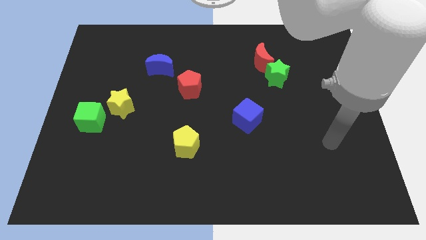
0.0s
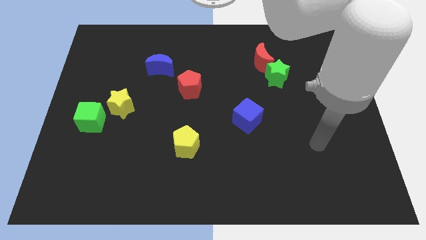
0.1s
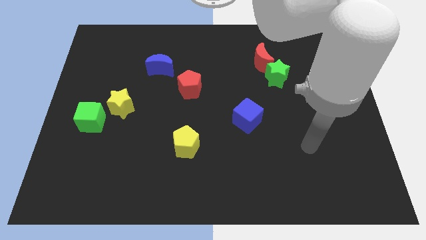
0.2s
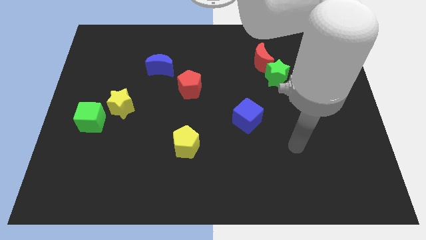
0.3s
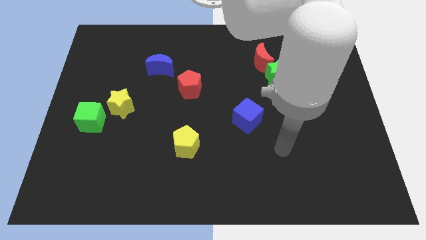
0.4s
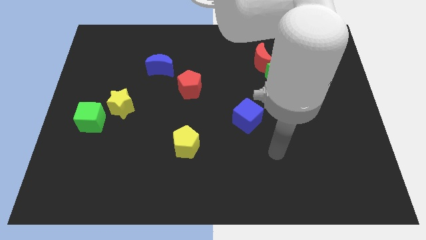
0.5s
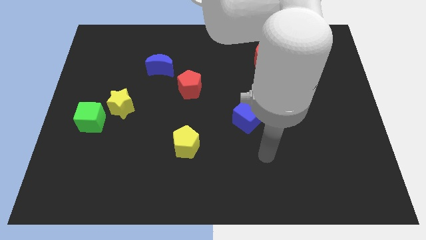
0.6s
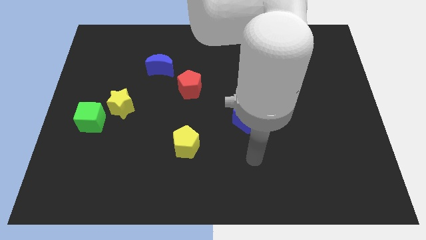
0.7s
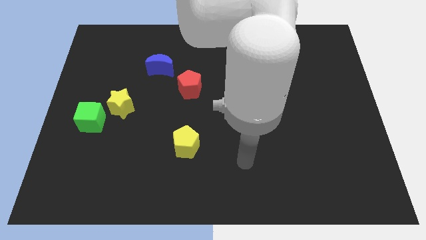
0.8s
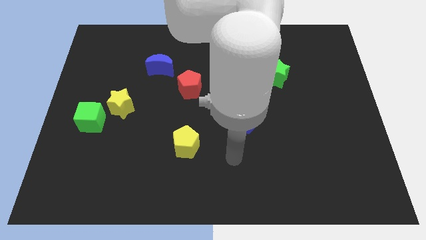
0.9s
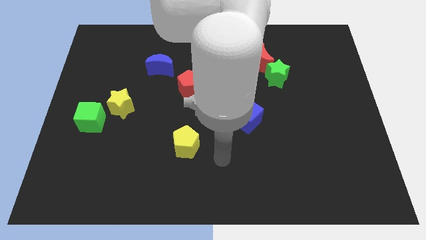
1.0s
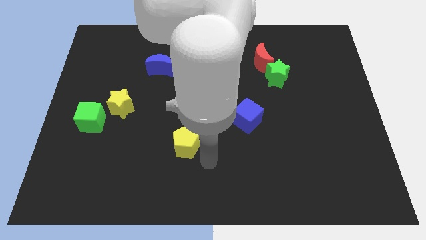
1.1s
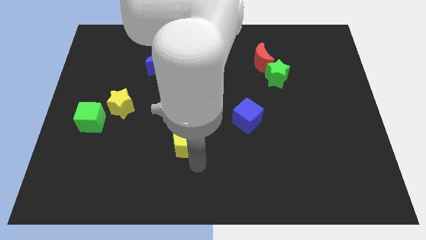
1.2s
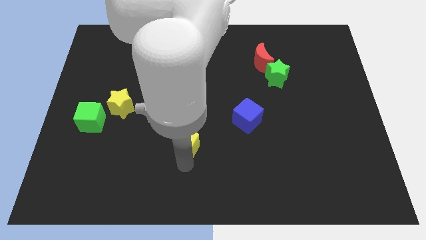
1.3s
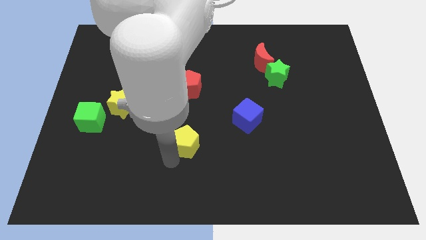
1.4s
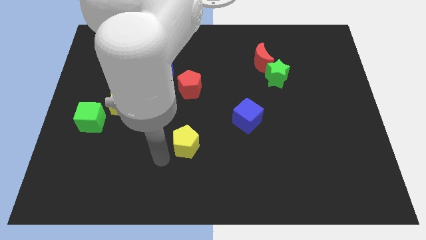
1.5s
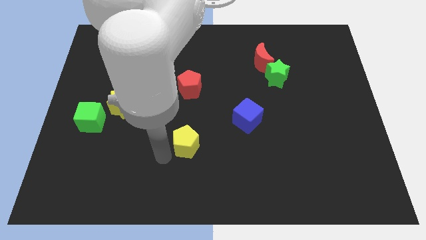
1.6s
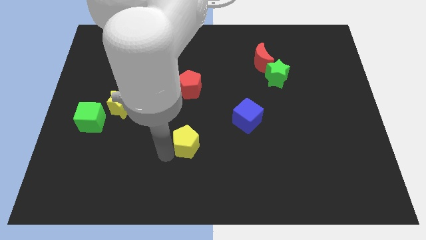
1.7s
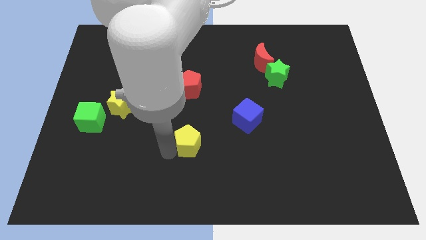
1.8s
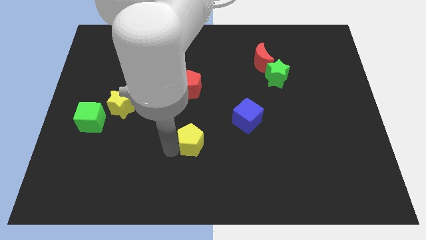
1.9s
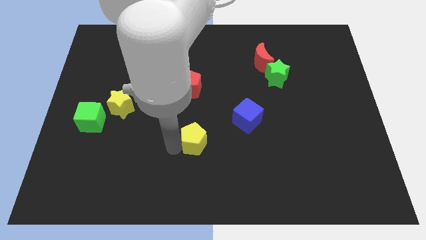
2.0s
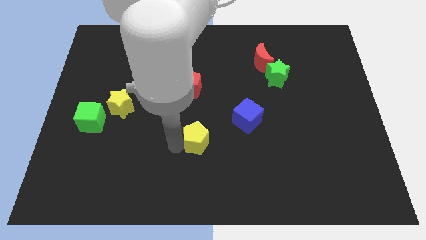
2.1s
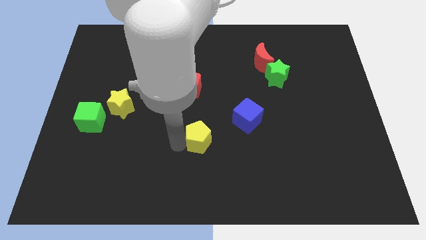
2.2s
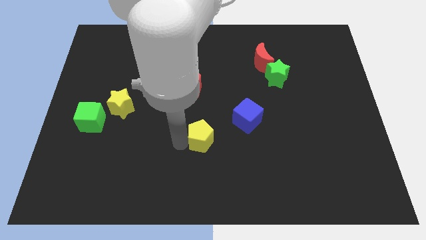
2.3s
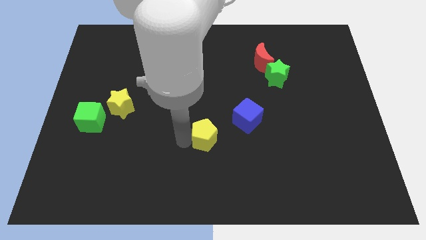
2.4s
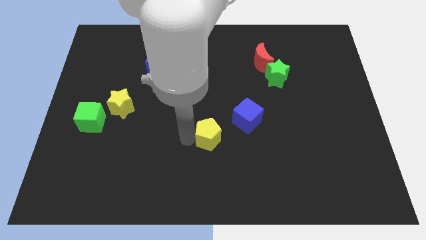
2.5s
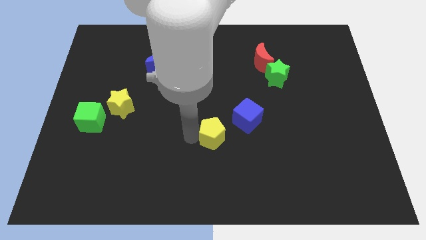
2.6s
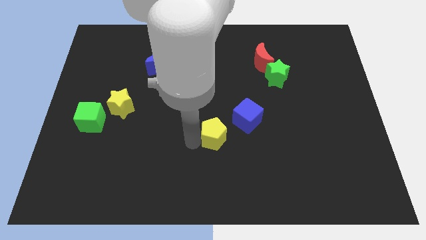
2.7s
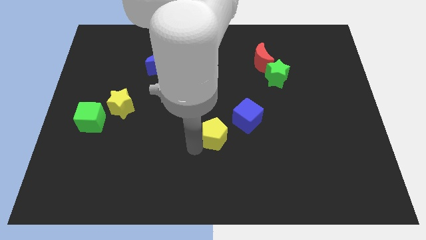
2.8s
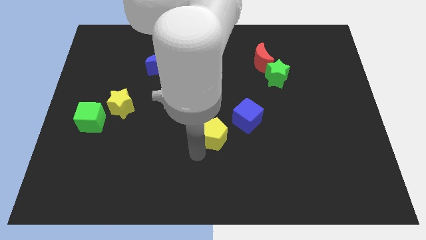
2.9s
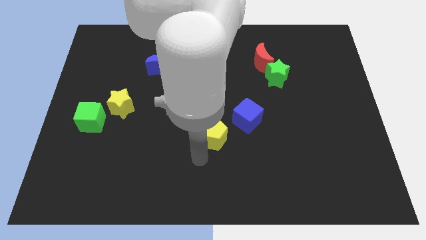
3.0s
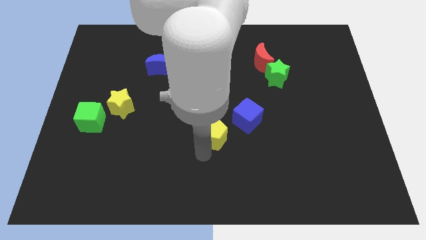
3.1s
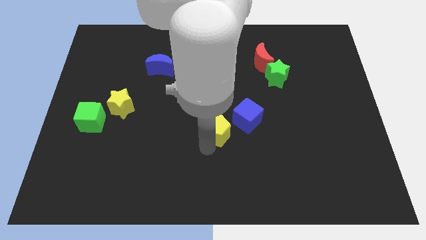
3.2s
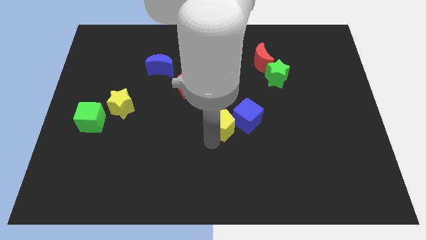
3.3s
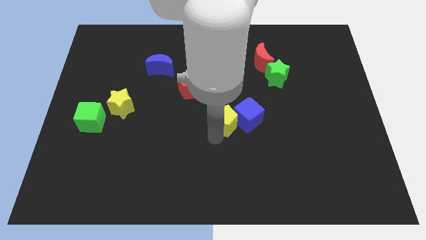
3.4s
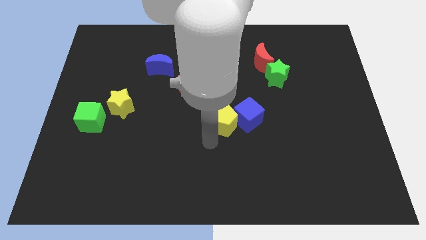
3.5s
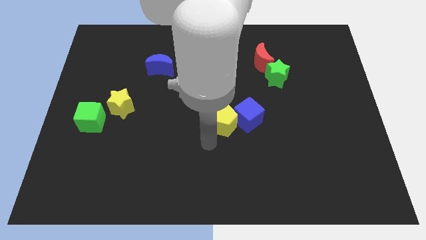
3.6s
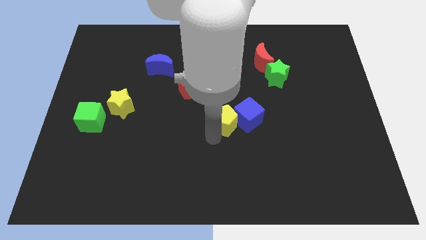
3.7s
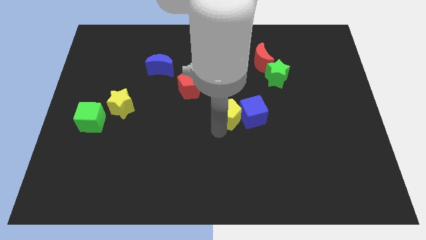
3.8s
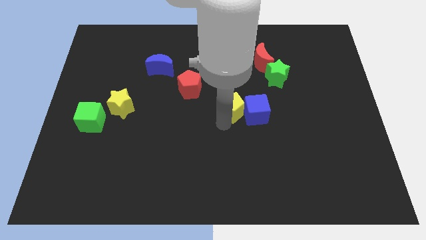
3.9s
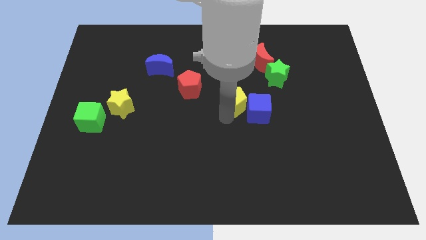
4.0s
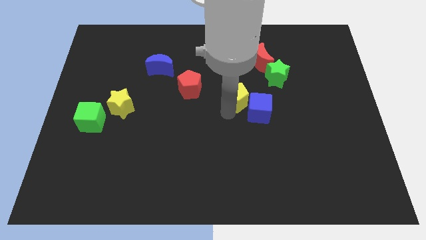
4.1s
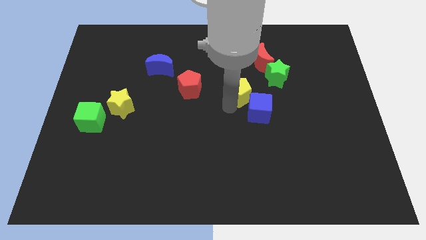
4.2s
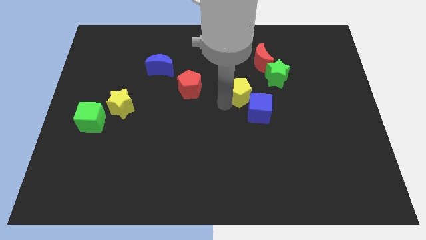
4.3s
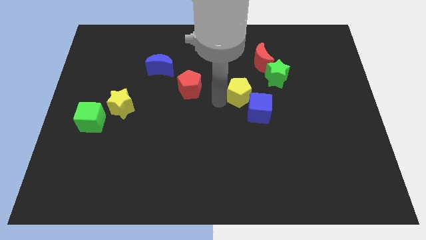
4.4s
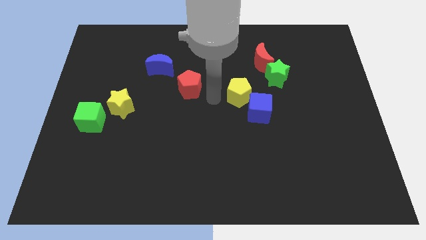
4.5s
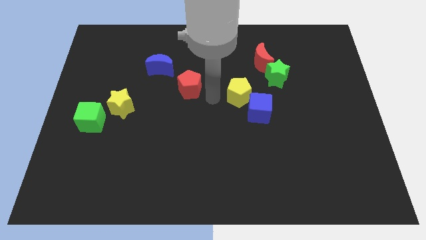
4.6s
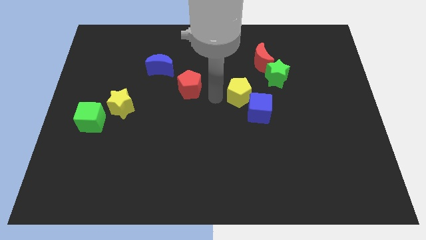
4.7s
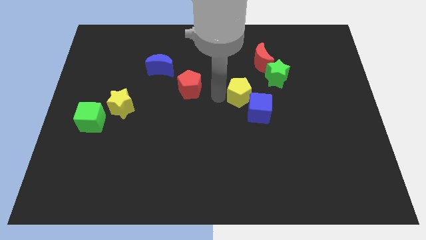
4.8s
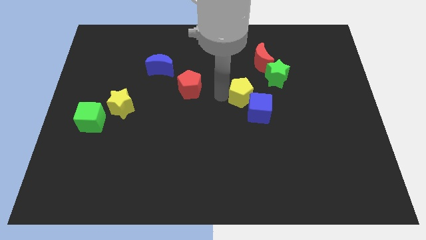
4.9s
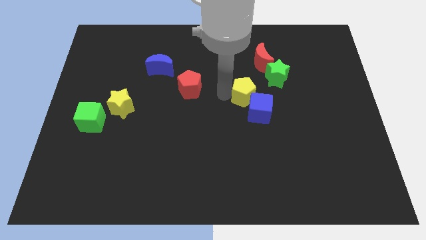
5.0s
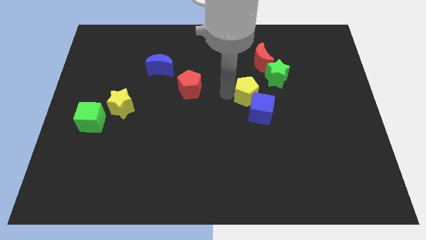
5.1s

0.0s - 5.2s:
push the yellow pentagon to the bottom side of the red moon

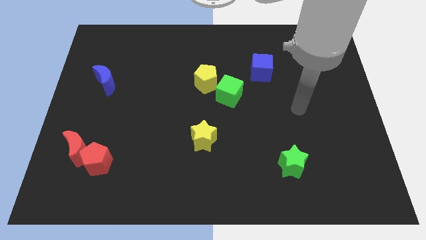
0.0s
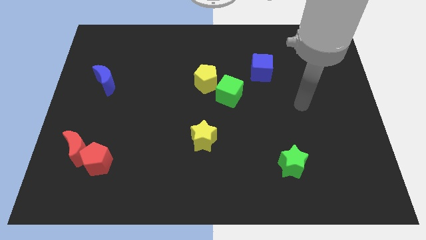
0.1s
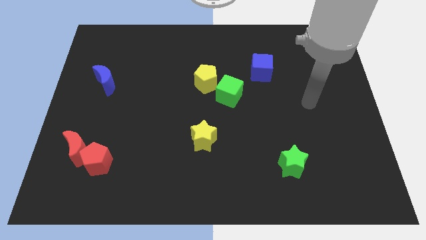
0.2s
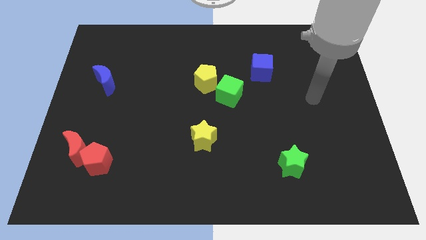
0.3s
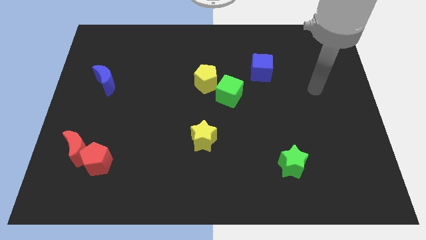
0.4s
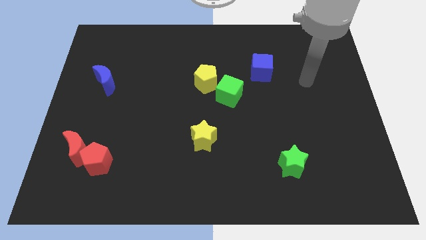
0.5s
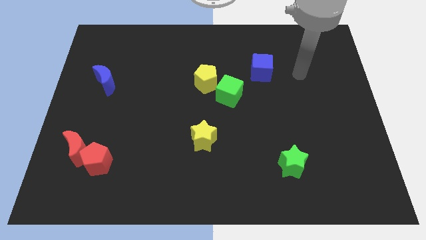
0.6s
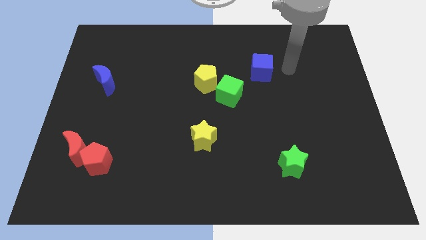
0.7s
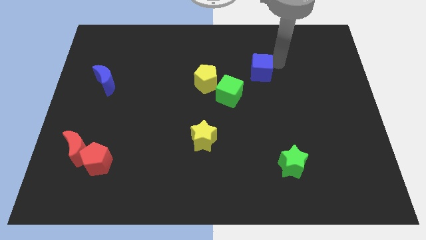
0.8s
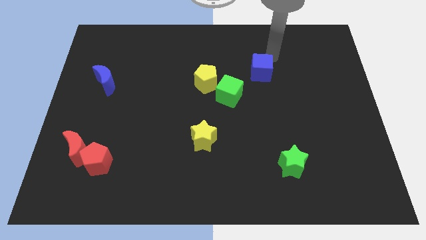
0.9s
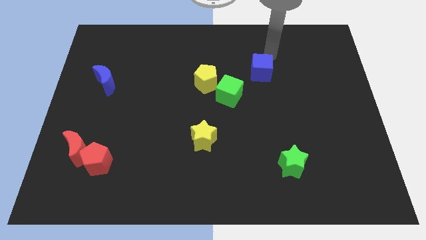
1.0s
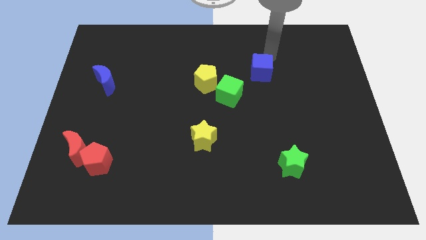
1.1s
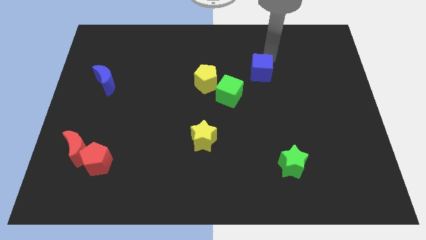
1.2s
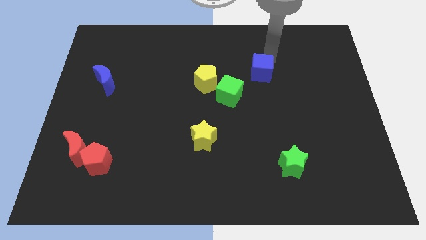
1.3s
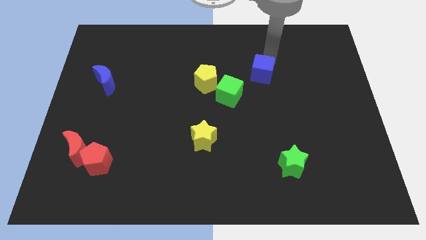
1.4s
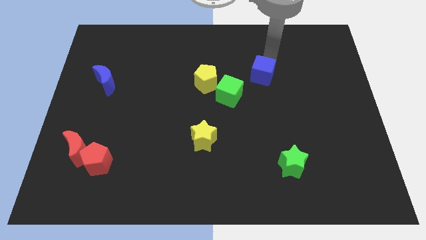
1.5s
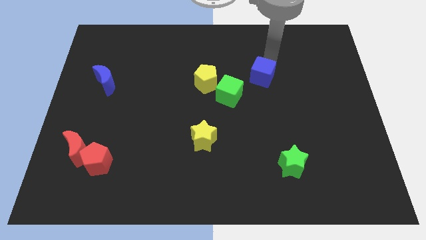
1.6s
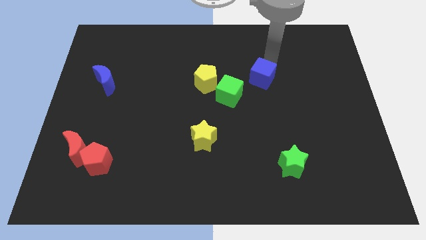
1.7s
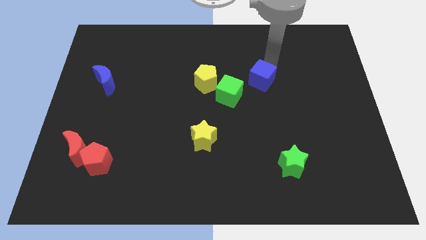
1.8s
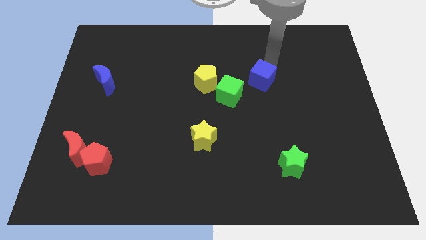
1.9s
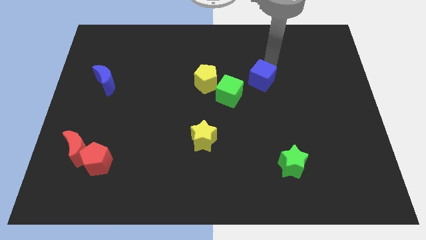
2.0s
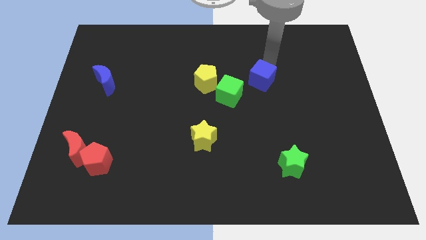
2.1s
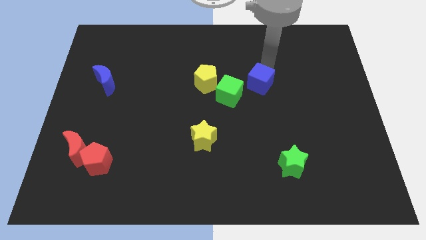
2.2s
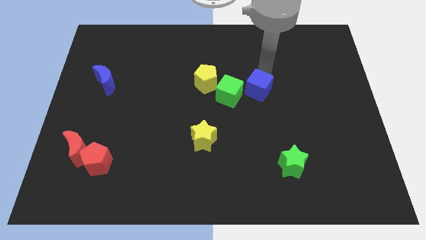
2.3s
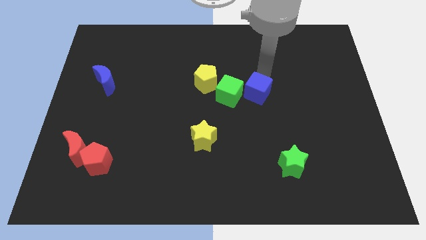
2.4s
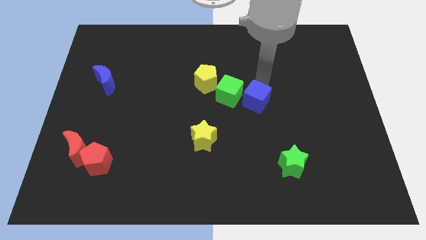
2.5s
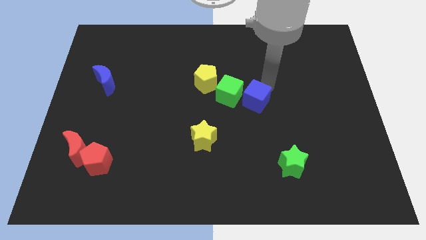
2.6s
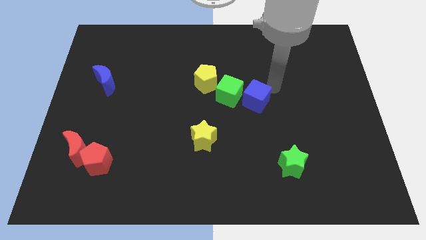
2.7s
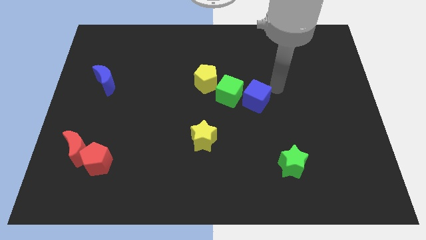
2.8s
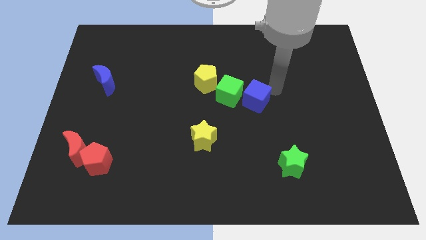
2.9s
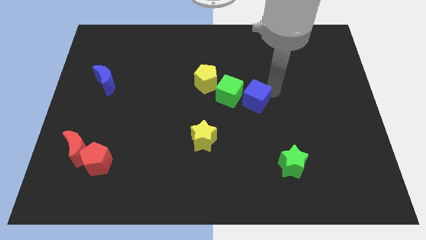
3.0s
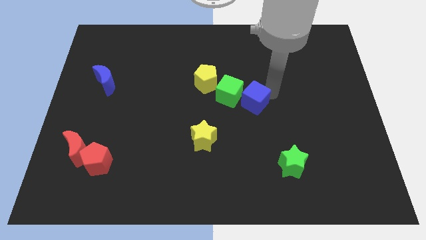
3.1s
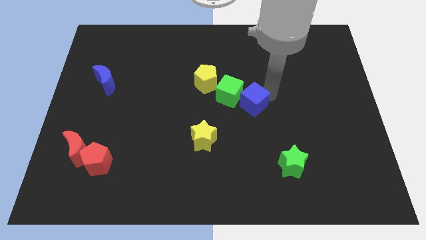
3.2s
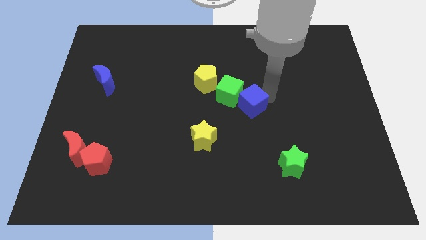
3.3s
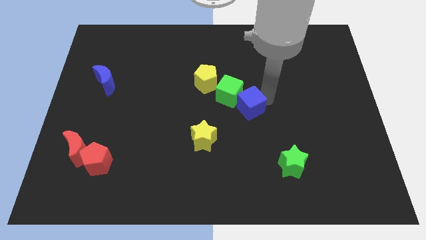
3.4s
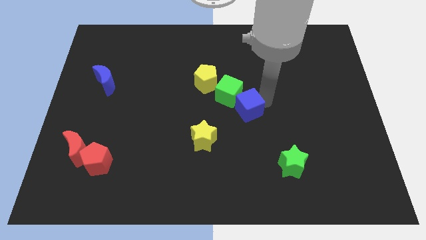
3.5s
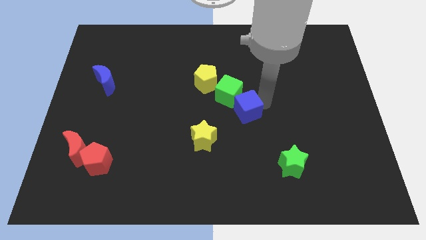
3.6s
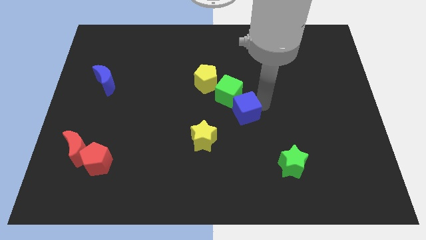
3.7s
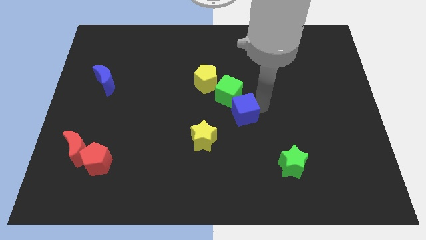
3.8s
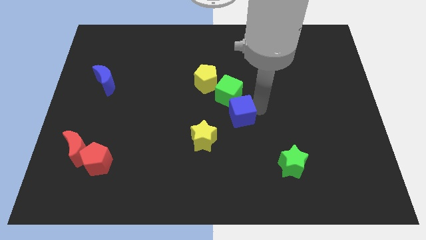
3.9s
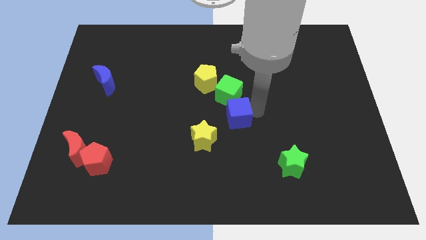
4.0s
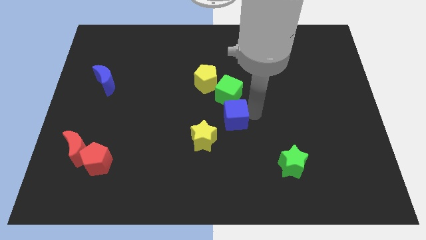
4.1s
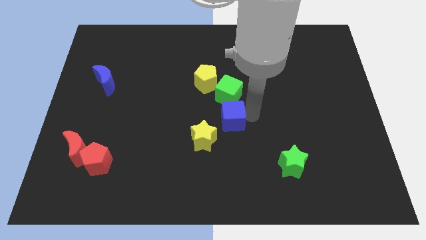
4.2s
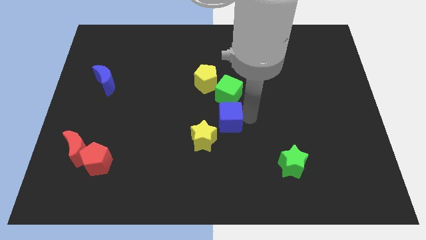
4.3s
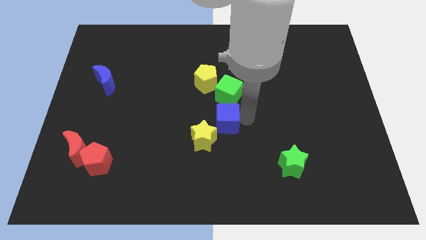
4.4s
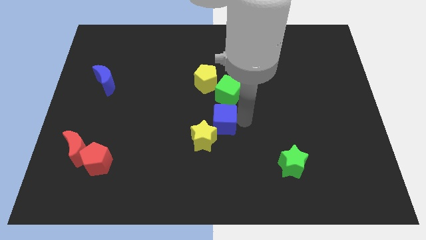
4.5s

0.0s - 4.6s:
push the blue cube to the bottom side of the yellow pentagon
